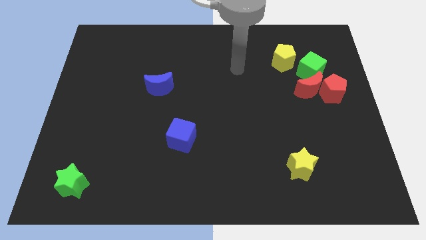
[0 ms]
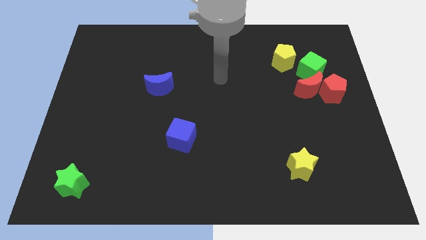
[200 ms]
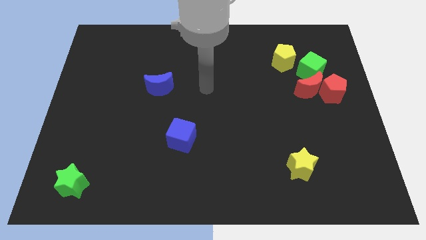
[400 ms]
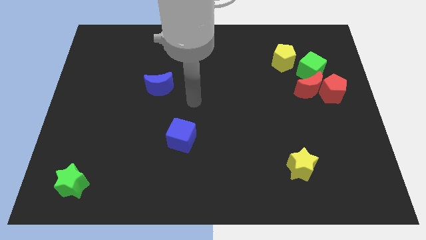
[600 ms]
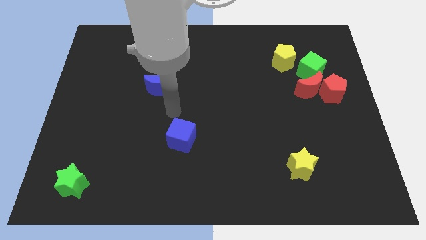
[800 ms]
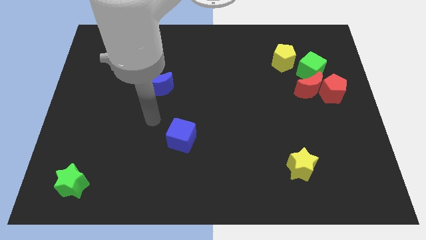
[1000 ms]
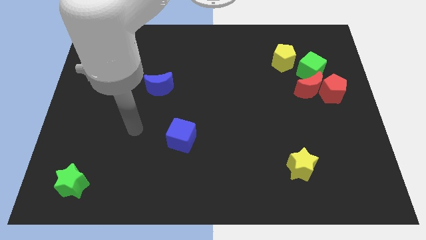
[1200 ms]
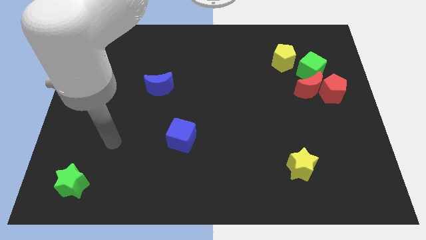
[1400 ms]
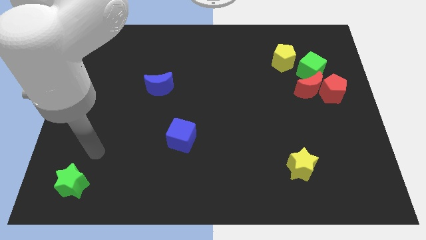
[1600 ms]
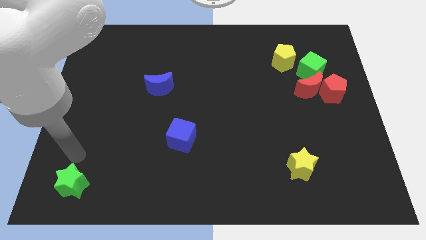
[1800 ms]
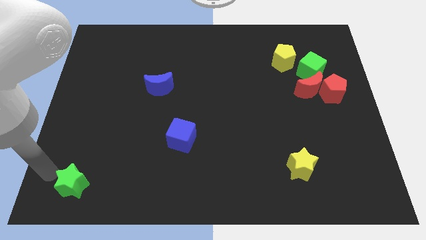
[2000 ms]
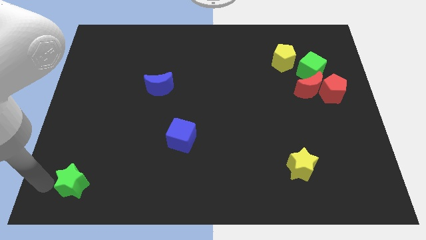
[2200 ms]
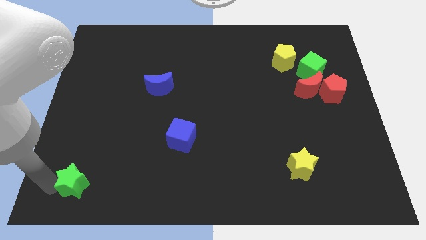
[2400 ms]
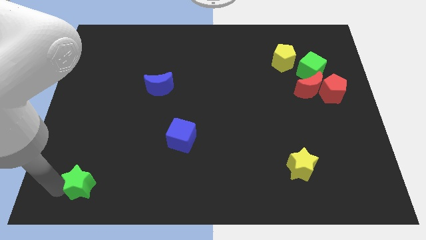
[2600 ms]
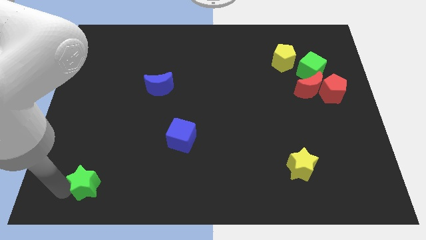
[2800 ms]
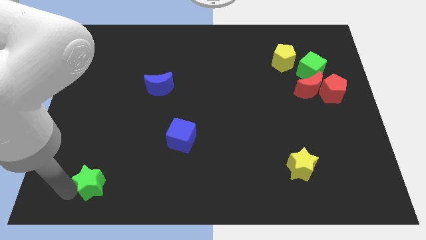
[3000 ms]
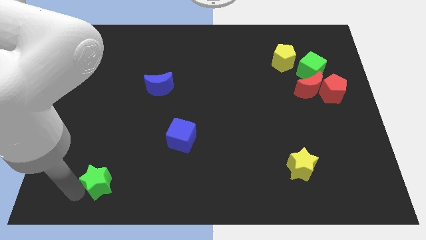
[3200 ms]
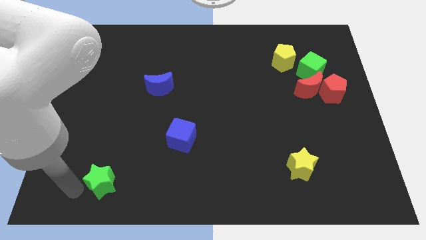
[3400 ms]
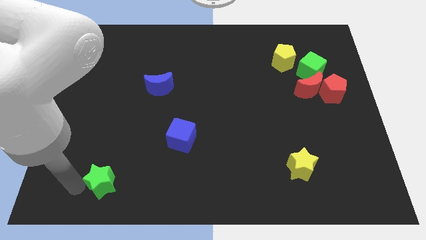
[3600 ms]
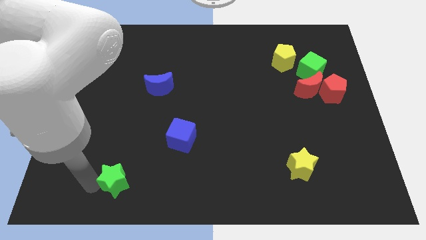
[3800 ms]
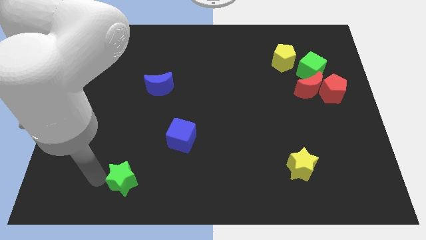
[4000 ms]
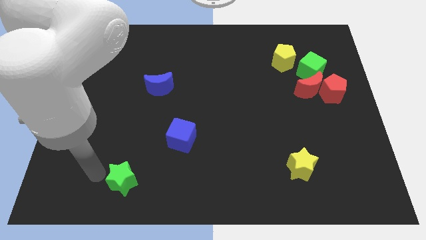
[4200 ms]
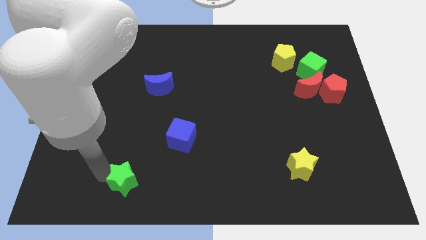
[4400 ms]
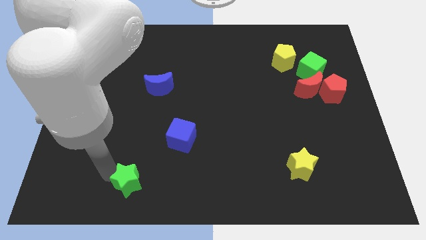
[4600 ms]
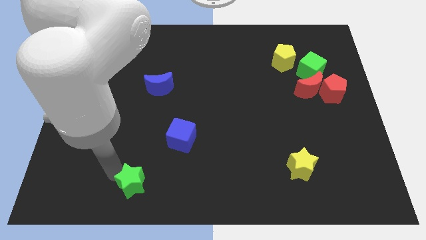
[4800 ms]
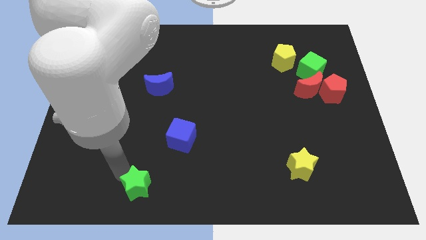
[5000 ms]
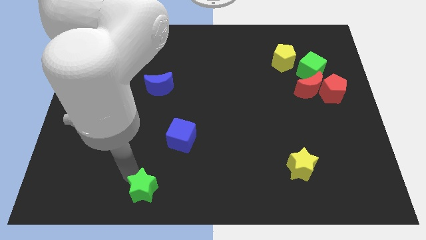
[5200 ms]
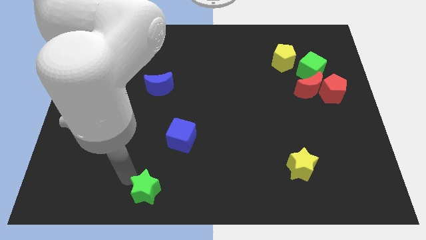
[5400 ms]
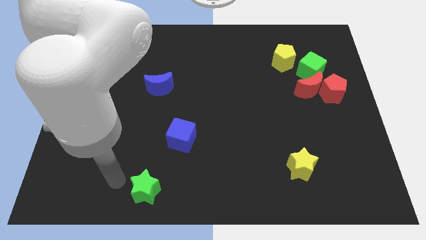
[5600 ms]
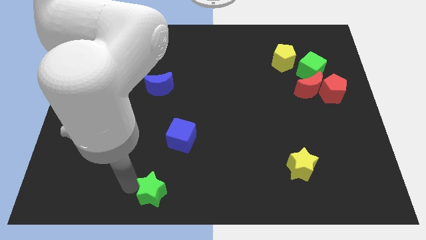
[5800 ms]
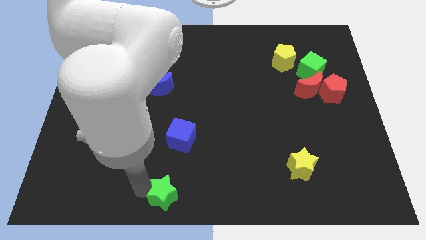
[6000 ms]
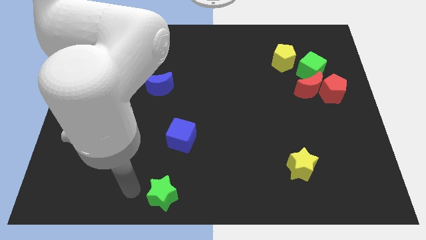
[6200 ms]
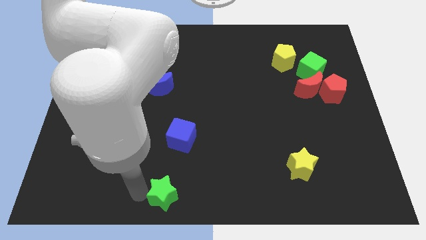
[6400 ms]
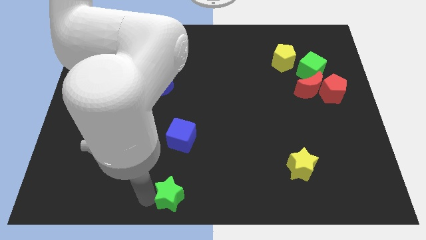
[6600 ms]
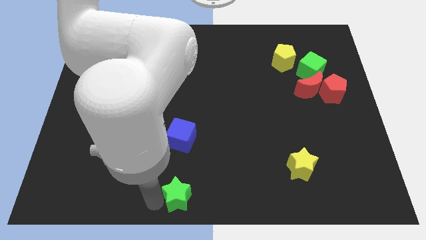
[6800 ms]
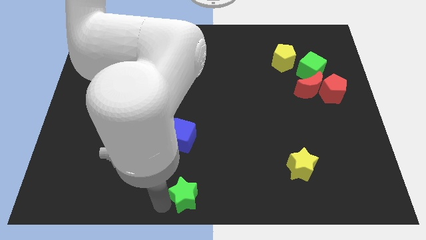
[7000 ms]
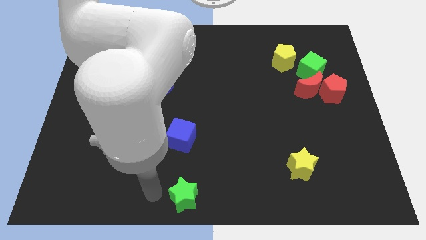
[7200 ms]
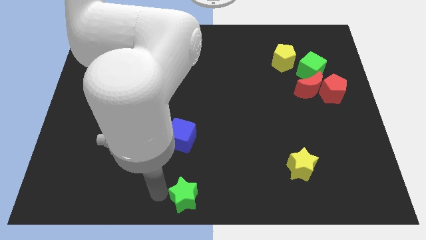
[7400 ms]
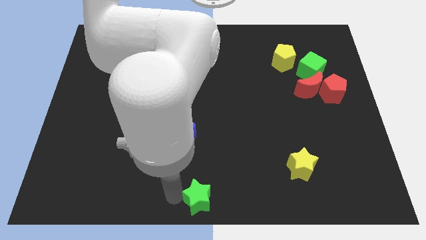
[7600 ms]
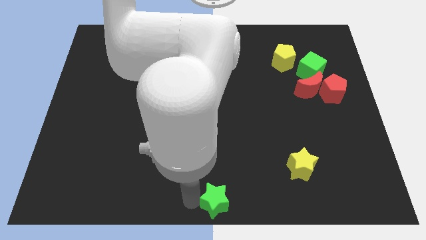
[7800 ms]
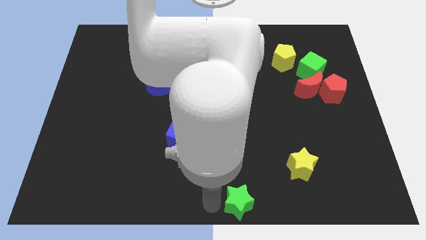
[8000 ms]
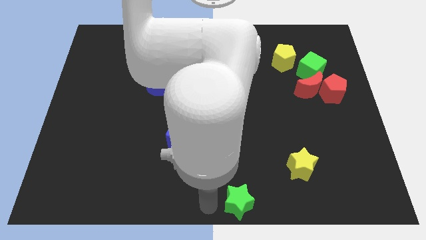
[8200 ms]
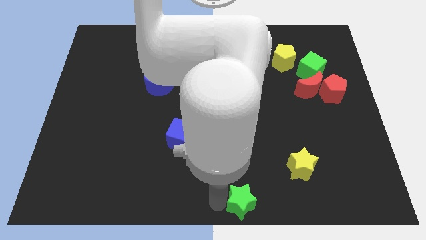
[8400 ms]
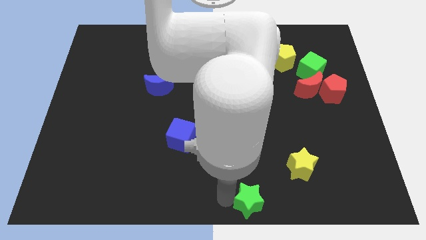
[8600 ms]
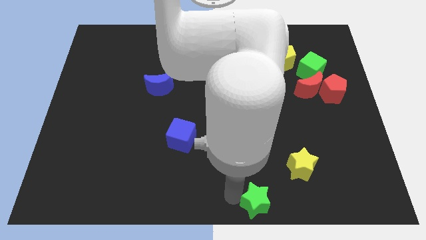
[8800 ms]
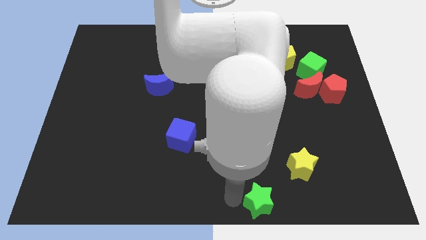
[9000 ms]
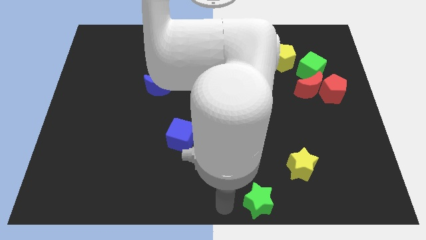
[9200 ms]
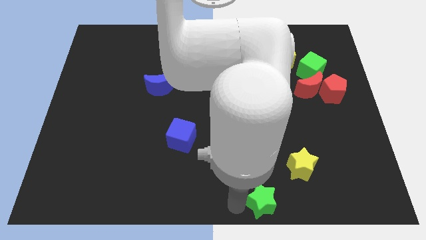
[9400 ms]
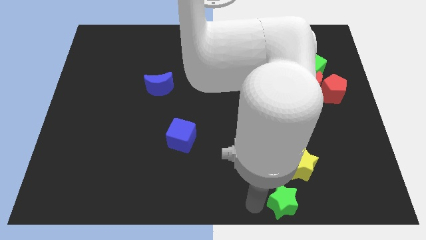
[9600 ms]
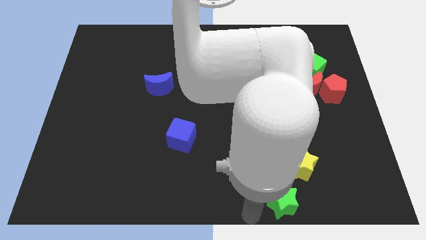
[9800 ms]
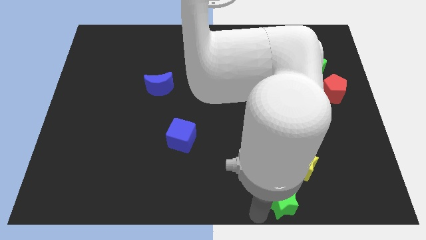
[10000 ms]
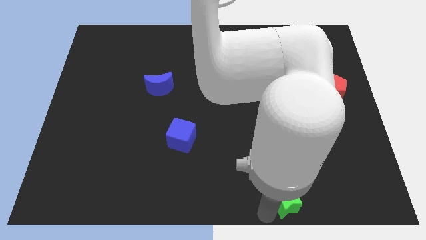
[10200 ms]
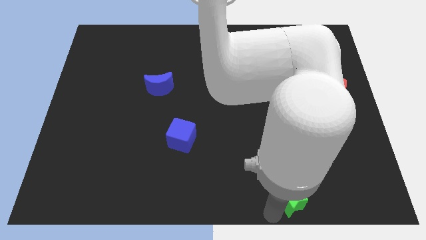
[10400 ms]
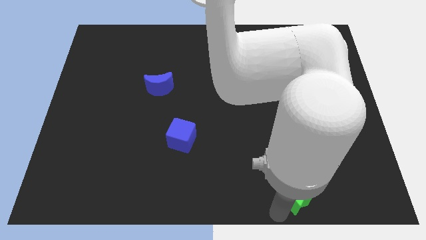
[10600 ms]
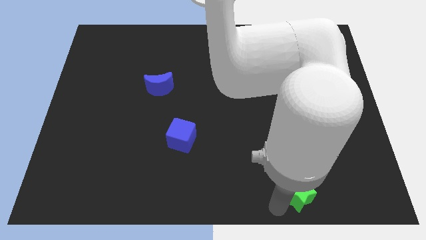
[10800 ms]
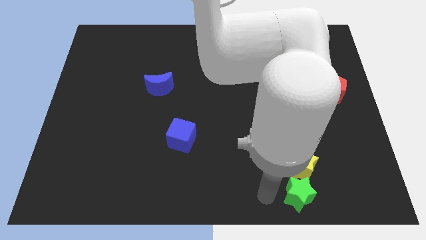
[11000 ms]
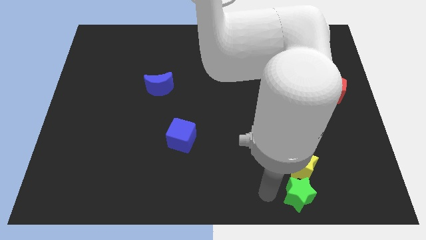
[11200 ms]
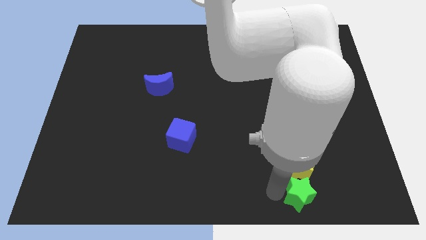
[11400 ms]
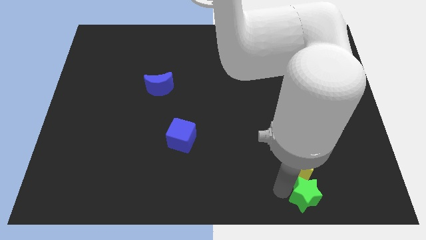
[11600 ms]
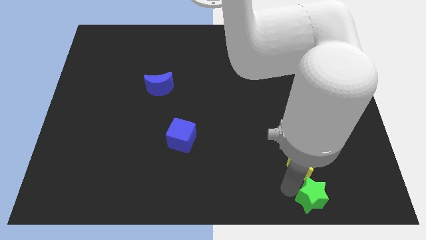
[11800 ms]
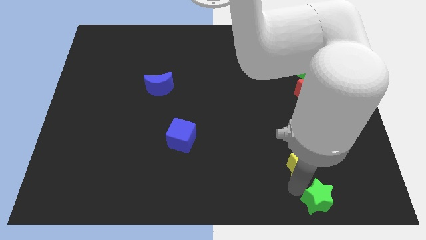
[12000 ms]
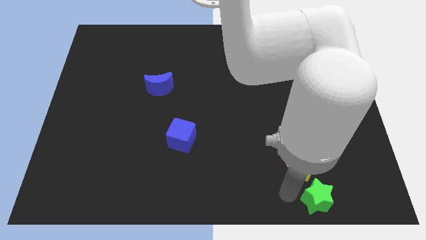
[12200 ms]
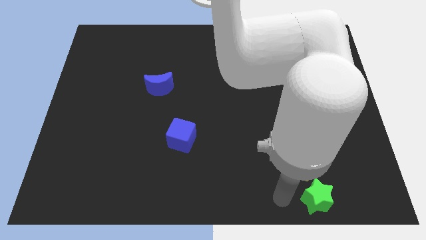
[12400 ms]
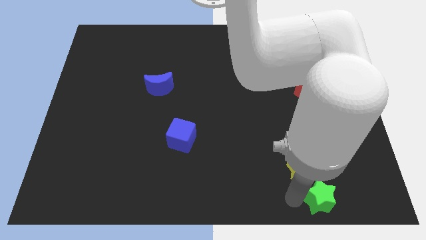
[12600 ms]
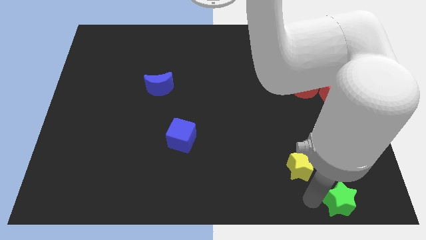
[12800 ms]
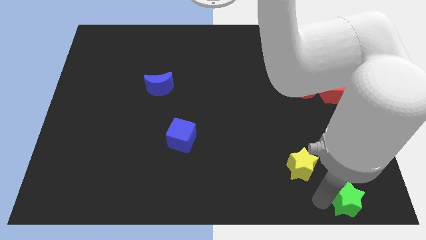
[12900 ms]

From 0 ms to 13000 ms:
put the green star to the bottom right of the board
